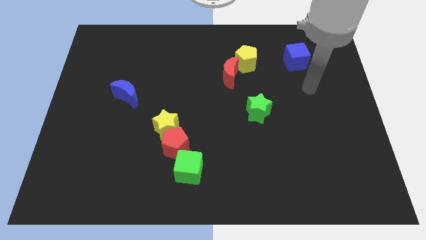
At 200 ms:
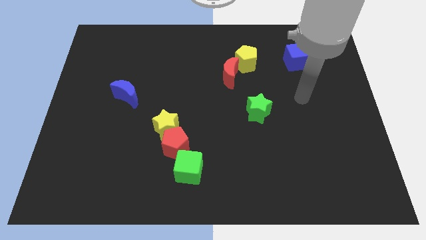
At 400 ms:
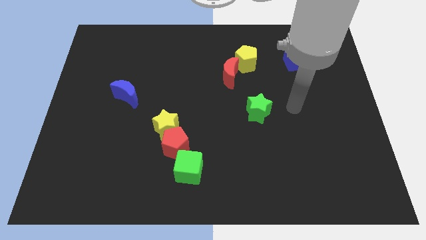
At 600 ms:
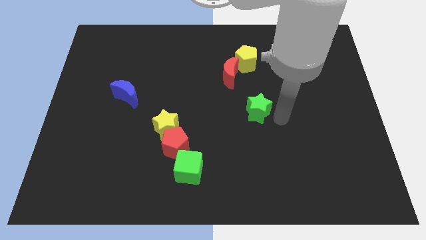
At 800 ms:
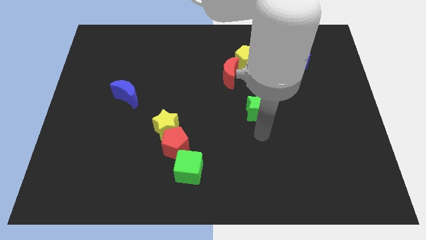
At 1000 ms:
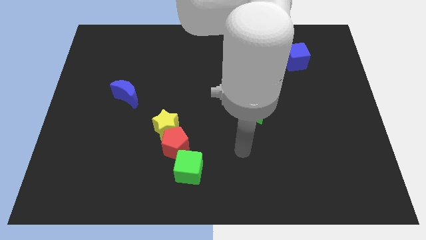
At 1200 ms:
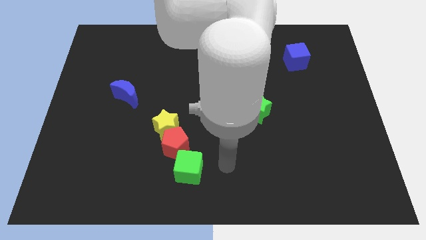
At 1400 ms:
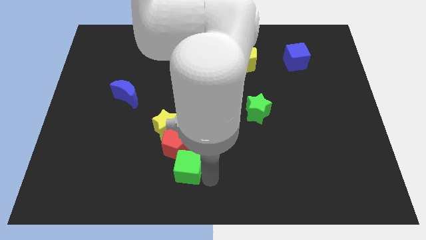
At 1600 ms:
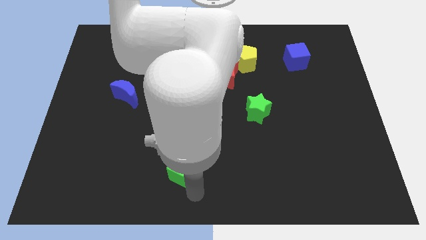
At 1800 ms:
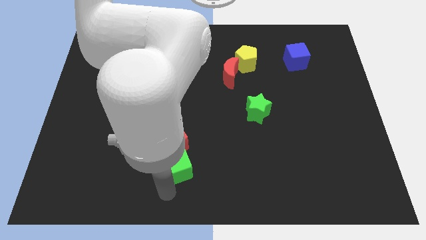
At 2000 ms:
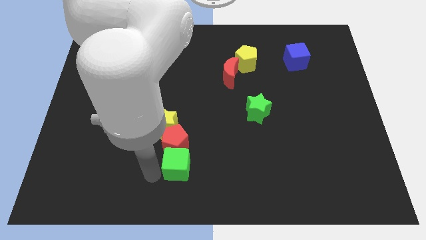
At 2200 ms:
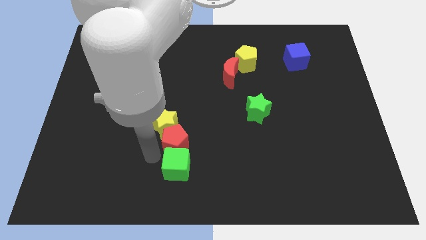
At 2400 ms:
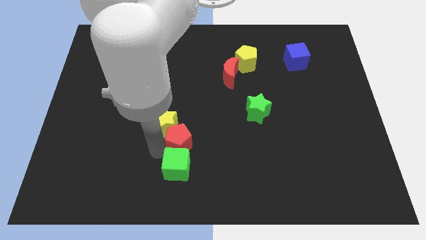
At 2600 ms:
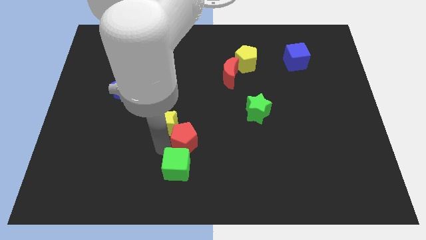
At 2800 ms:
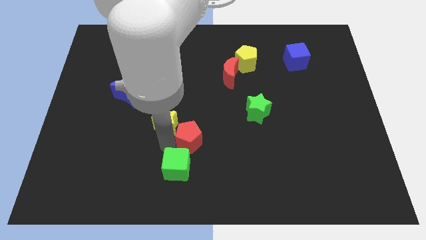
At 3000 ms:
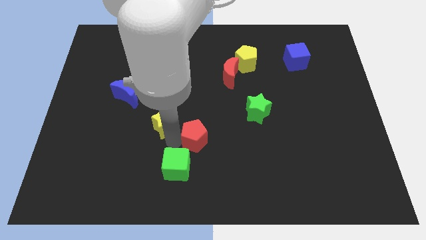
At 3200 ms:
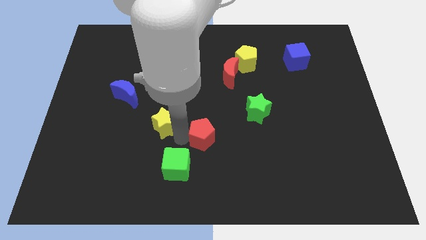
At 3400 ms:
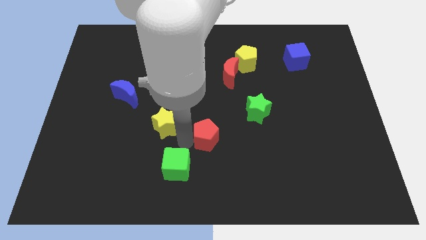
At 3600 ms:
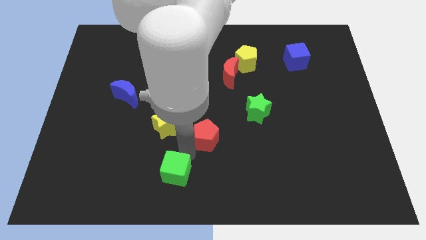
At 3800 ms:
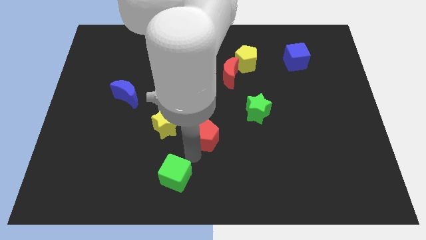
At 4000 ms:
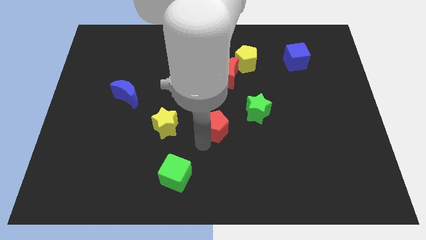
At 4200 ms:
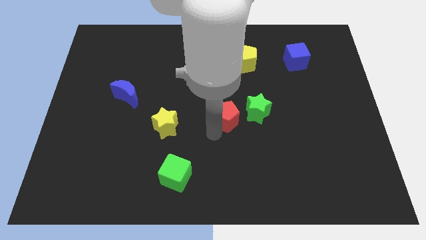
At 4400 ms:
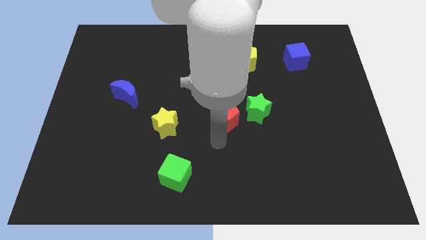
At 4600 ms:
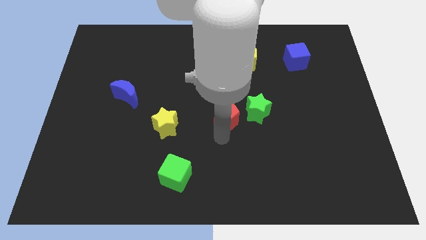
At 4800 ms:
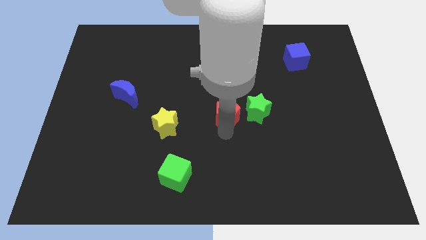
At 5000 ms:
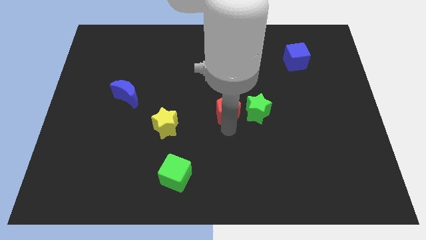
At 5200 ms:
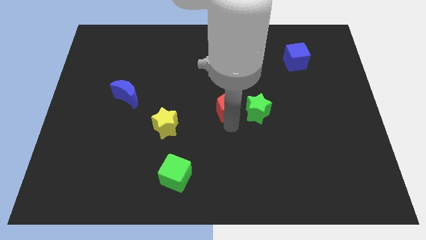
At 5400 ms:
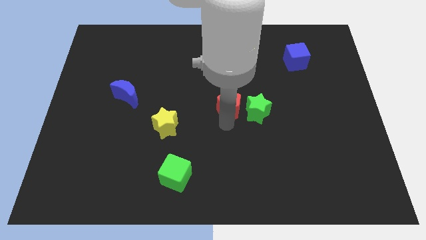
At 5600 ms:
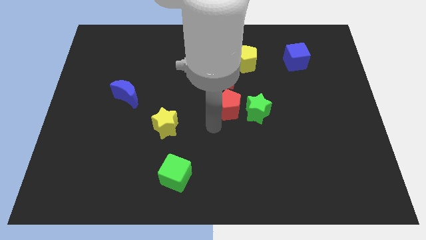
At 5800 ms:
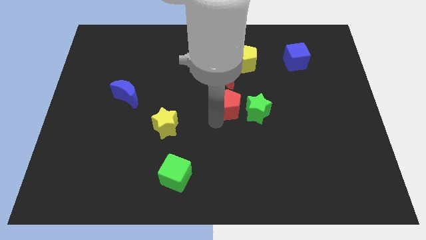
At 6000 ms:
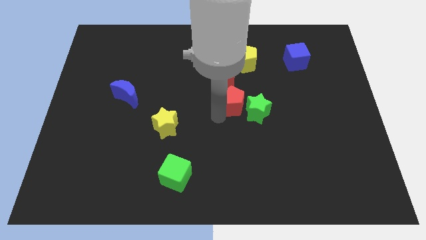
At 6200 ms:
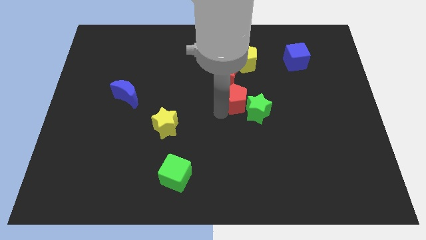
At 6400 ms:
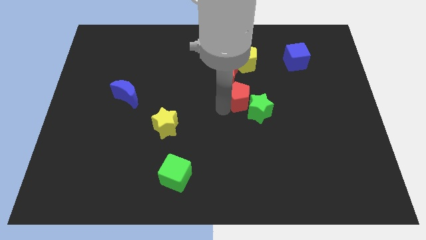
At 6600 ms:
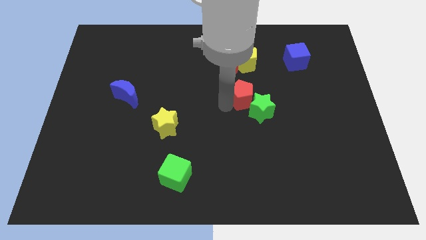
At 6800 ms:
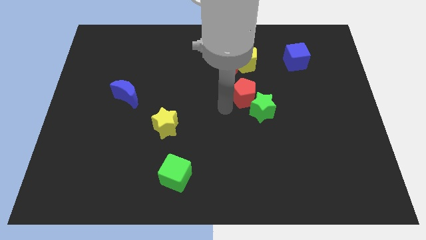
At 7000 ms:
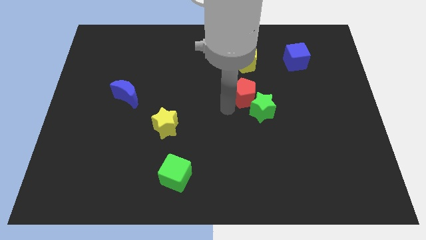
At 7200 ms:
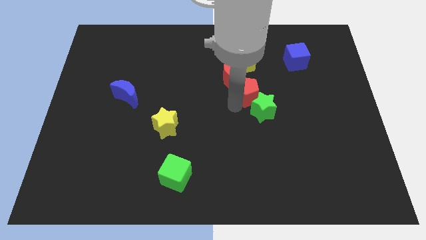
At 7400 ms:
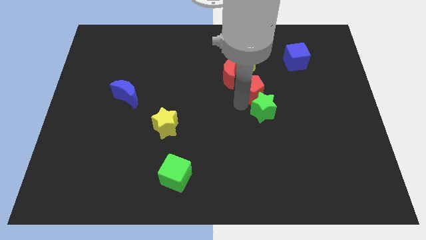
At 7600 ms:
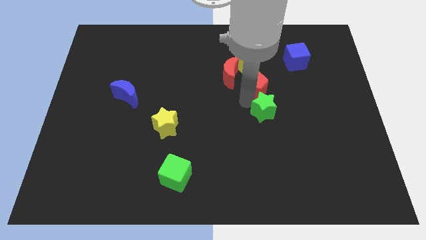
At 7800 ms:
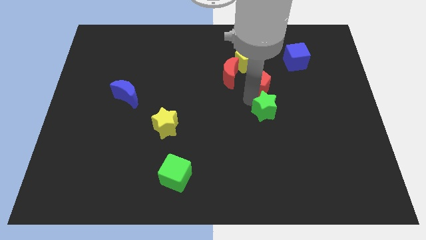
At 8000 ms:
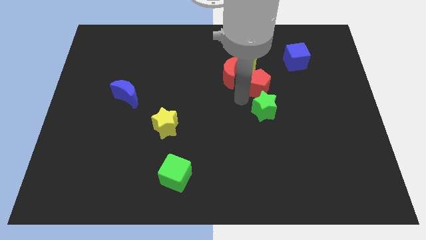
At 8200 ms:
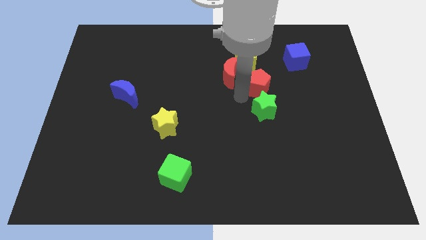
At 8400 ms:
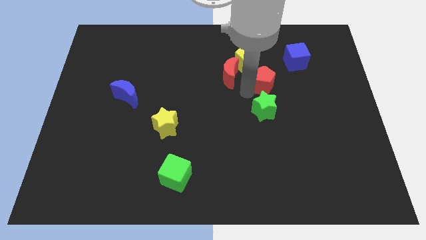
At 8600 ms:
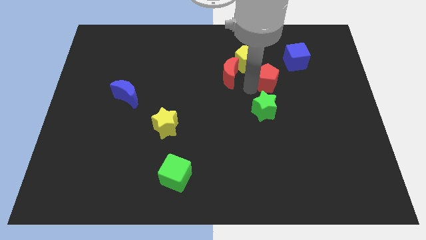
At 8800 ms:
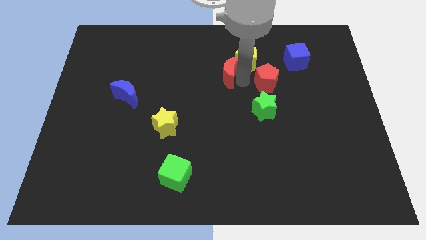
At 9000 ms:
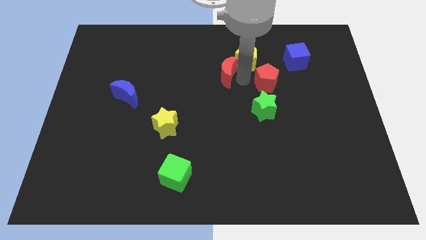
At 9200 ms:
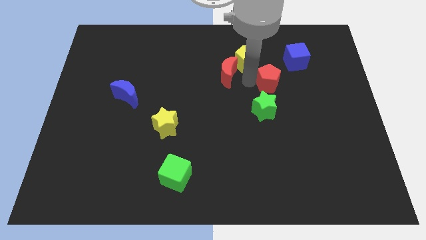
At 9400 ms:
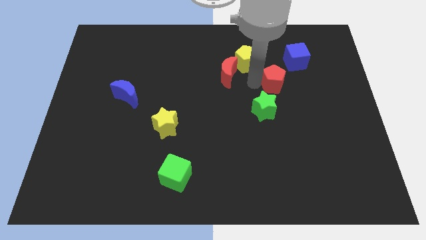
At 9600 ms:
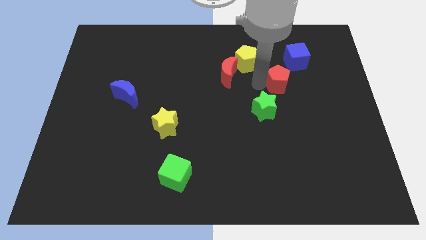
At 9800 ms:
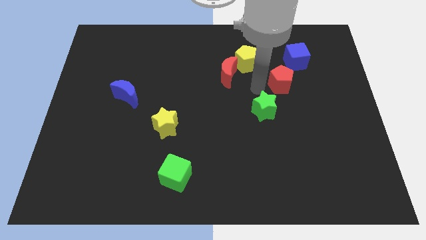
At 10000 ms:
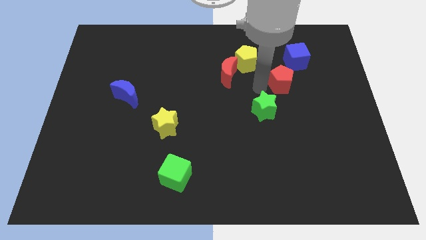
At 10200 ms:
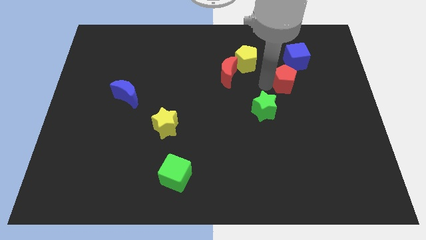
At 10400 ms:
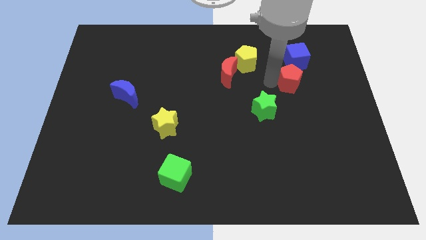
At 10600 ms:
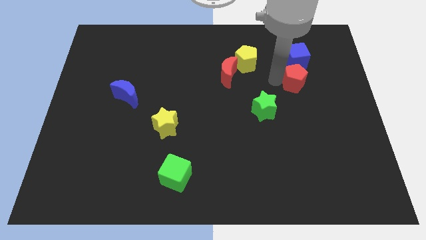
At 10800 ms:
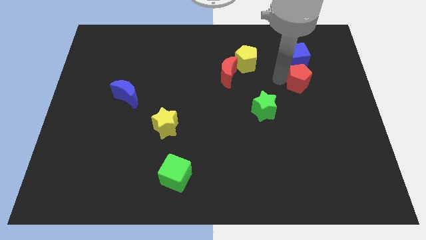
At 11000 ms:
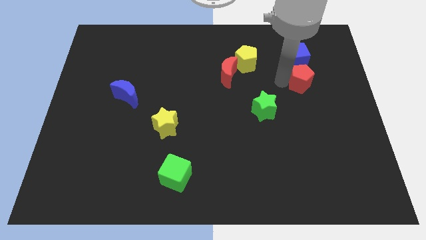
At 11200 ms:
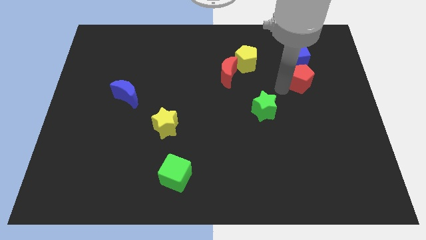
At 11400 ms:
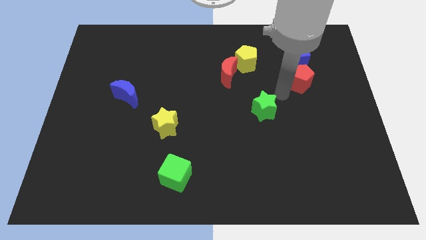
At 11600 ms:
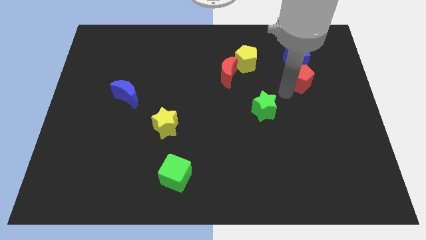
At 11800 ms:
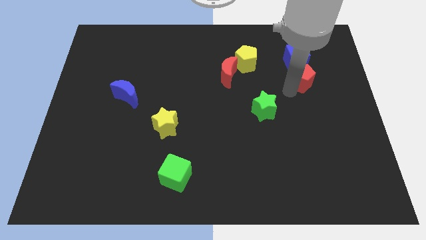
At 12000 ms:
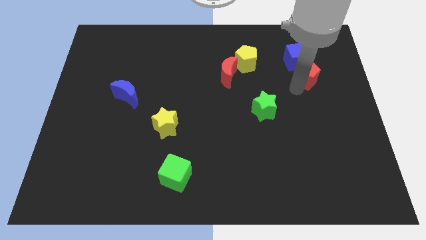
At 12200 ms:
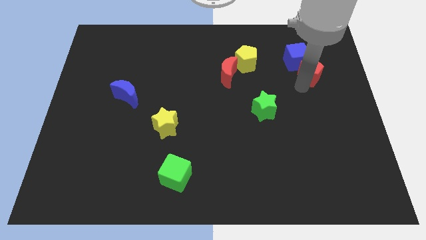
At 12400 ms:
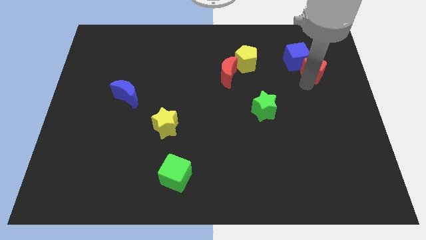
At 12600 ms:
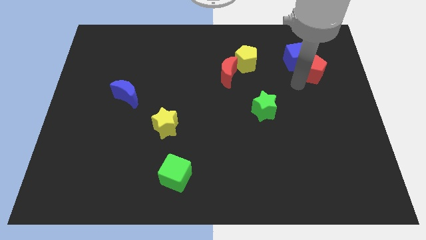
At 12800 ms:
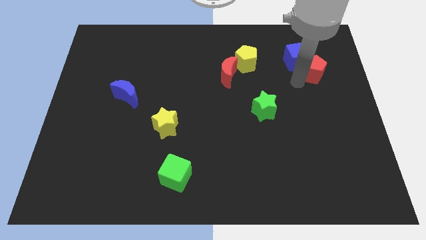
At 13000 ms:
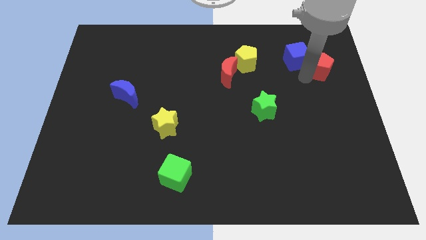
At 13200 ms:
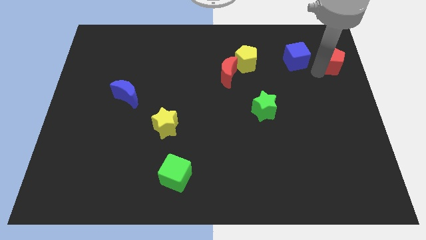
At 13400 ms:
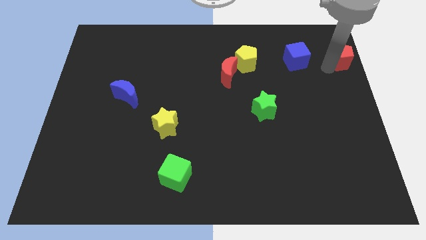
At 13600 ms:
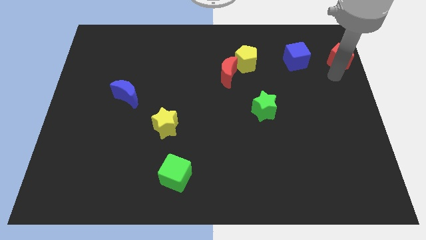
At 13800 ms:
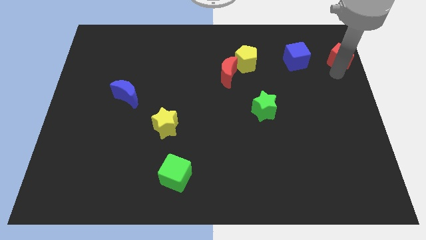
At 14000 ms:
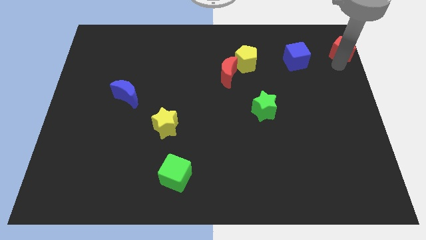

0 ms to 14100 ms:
slide the red pentagon to the top right
